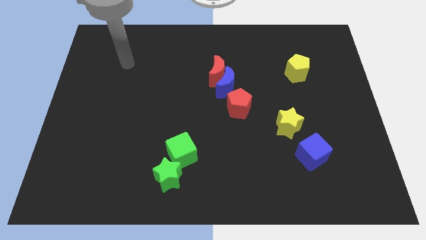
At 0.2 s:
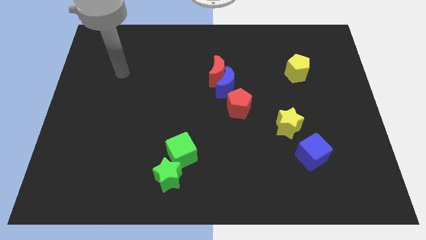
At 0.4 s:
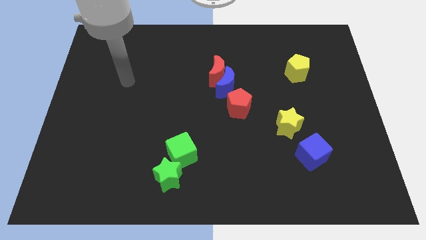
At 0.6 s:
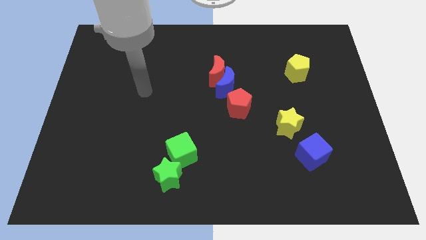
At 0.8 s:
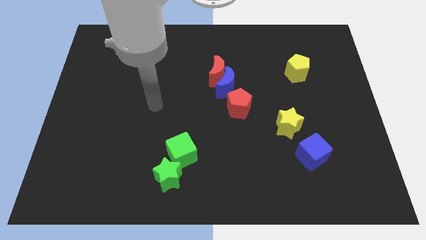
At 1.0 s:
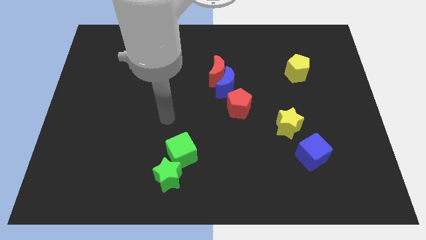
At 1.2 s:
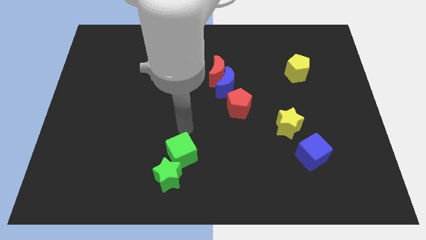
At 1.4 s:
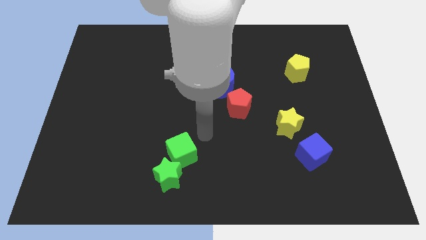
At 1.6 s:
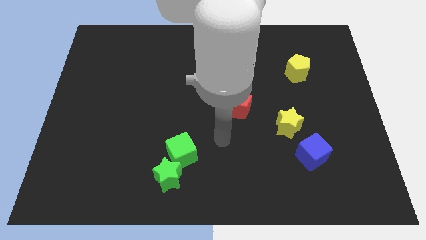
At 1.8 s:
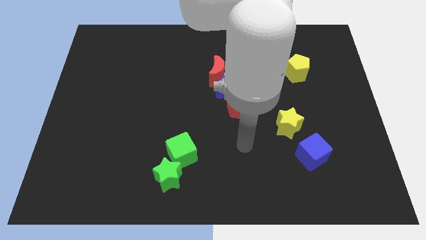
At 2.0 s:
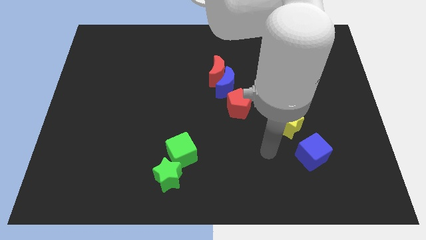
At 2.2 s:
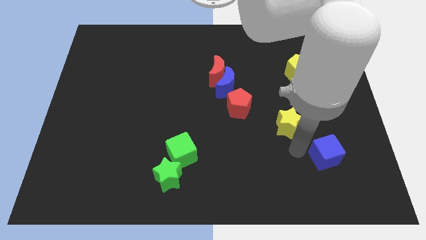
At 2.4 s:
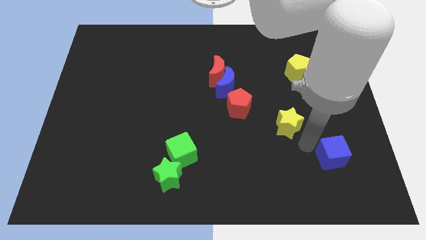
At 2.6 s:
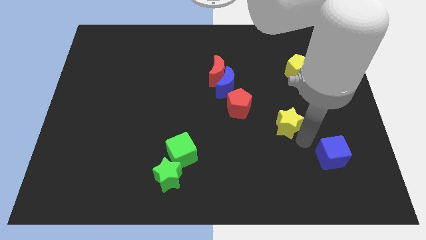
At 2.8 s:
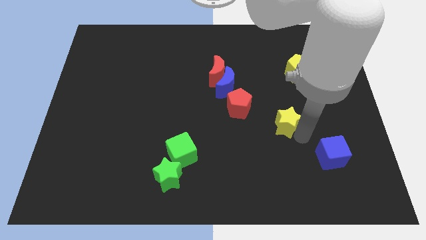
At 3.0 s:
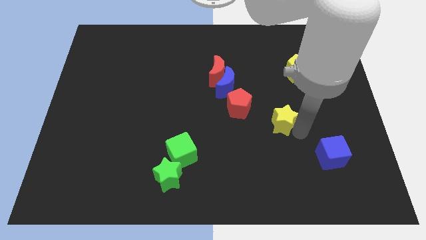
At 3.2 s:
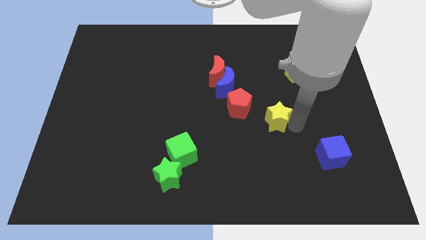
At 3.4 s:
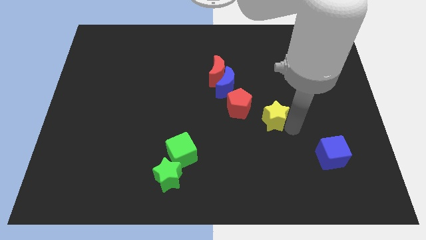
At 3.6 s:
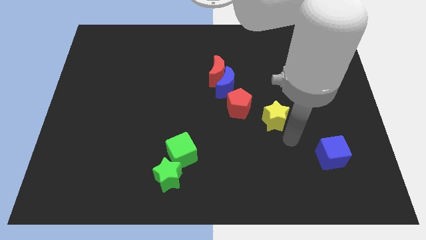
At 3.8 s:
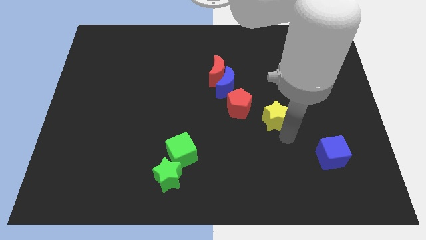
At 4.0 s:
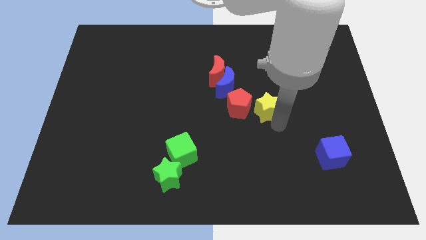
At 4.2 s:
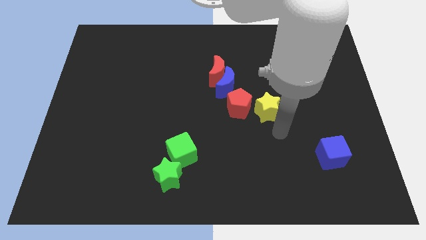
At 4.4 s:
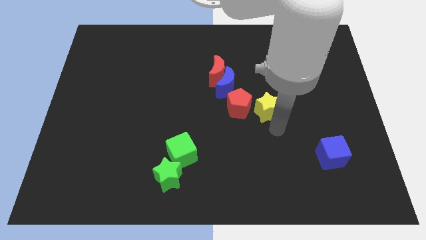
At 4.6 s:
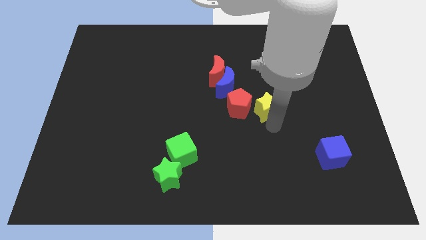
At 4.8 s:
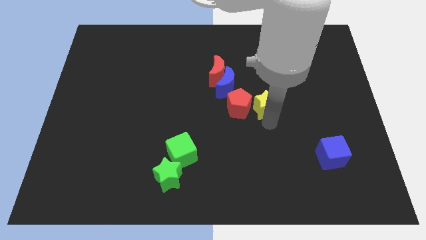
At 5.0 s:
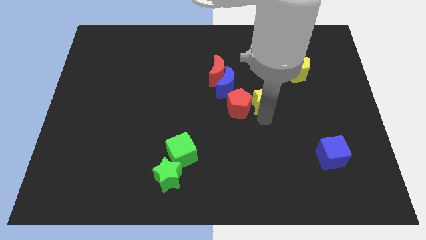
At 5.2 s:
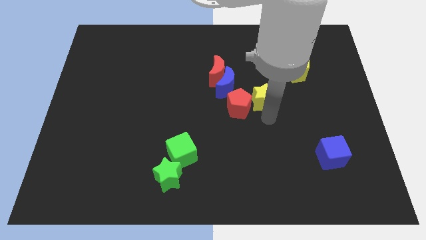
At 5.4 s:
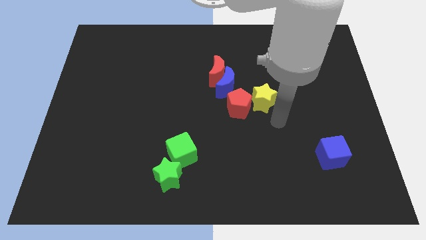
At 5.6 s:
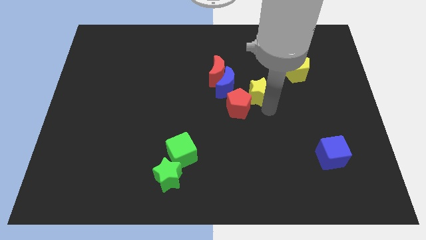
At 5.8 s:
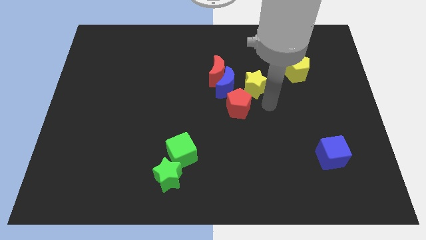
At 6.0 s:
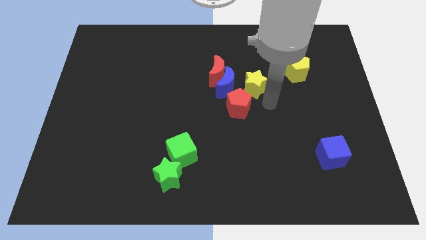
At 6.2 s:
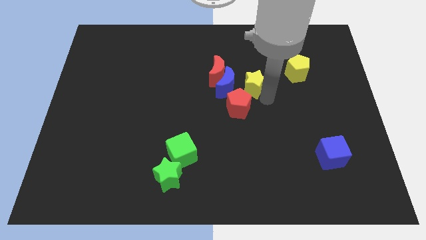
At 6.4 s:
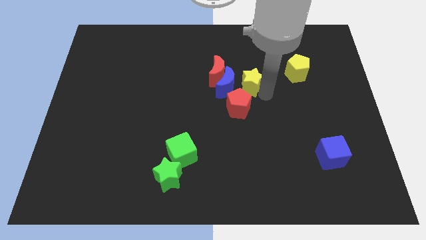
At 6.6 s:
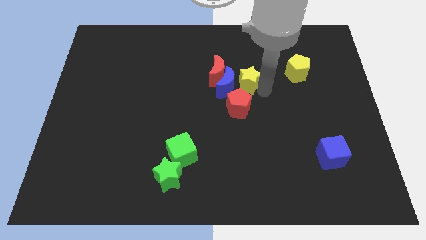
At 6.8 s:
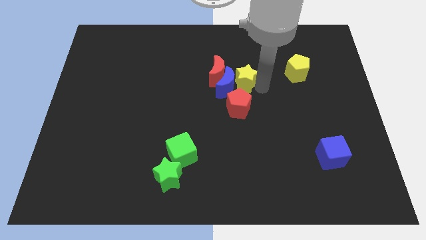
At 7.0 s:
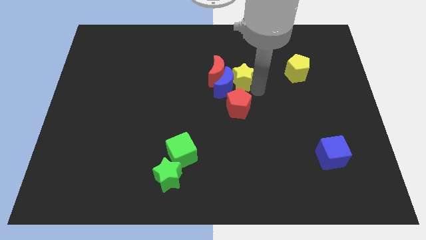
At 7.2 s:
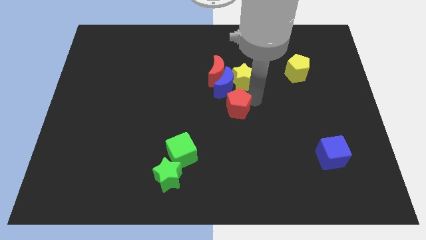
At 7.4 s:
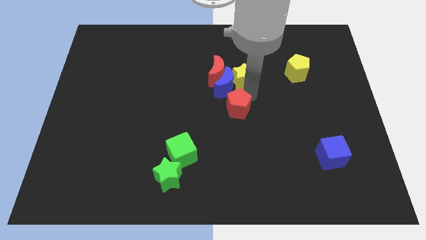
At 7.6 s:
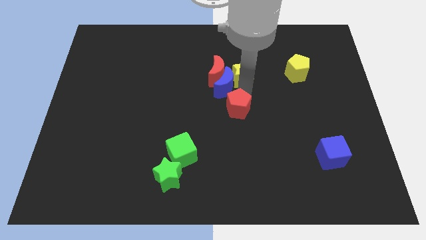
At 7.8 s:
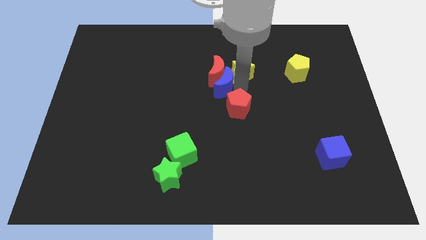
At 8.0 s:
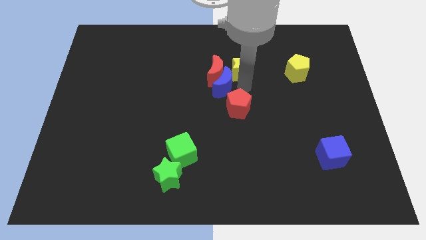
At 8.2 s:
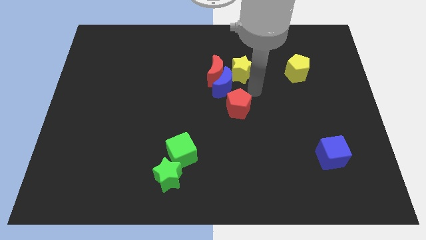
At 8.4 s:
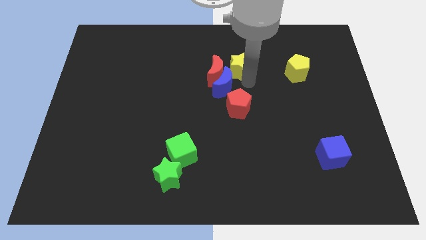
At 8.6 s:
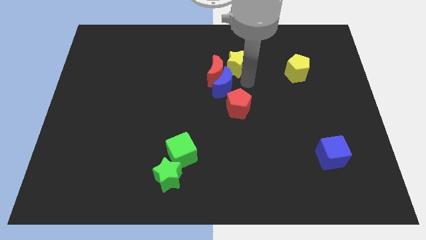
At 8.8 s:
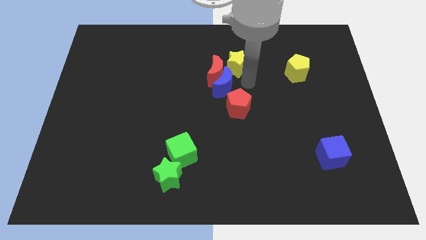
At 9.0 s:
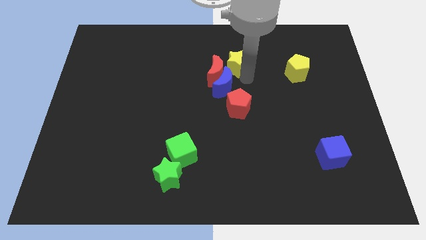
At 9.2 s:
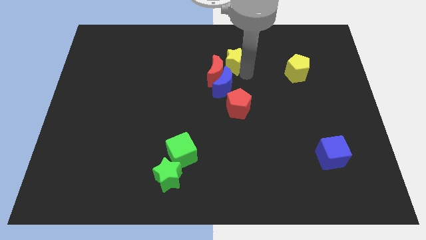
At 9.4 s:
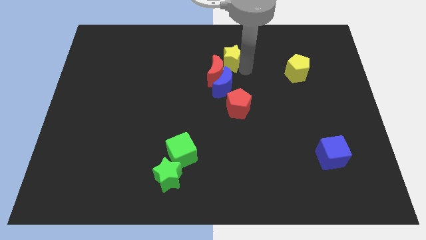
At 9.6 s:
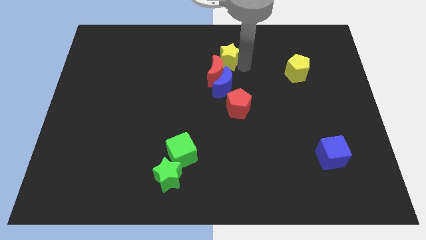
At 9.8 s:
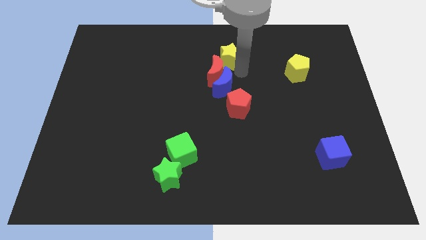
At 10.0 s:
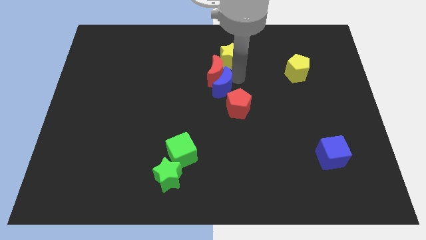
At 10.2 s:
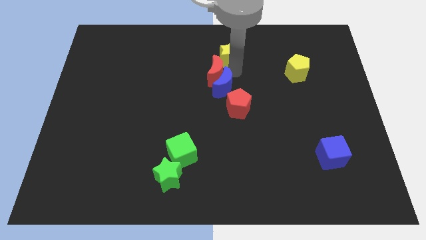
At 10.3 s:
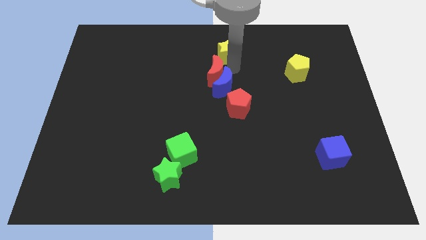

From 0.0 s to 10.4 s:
push the yellow star to the towards your base

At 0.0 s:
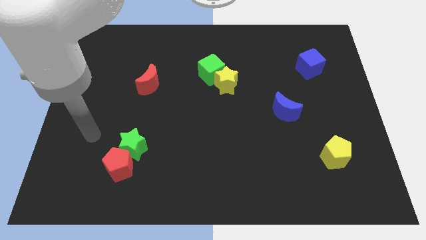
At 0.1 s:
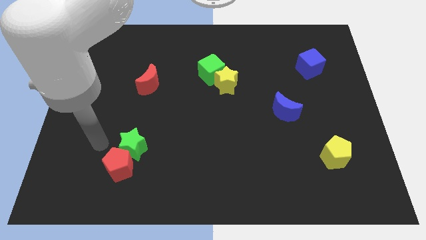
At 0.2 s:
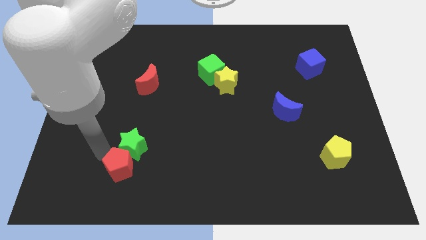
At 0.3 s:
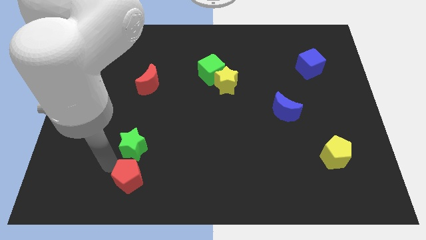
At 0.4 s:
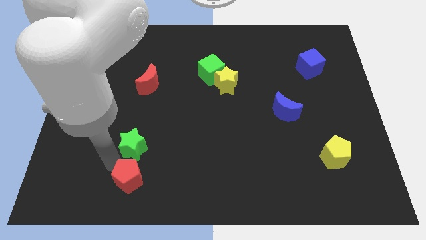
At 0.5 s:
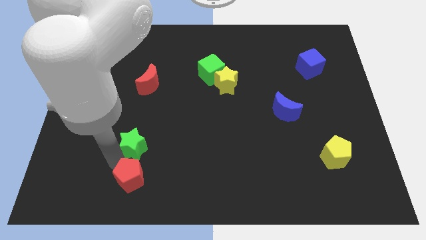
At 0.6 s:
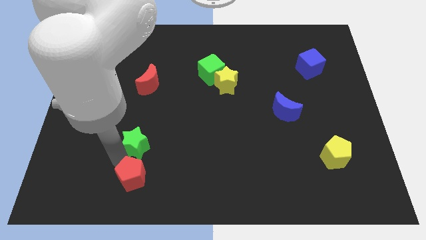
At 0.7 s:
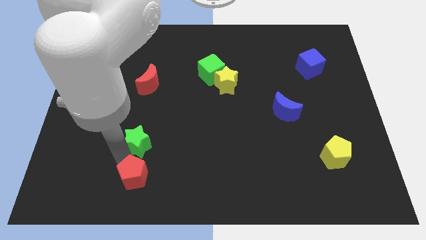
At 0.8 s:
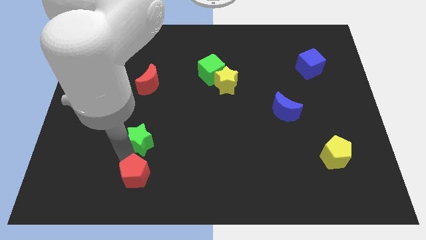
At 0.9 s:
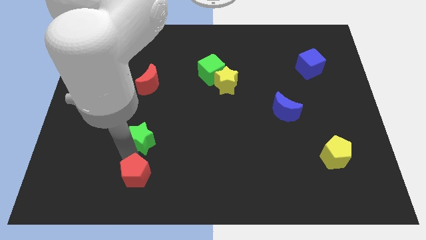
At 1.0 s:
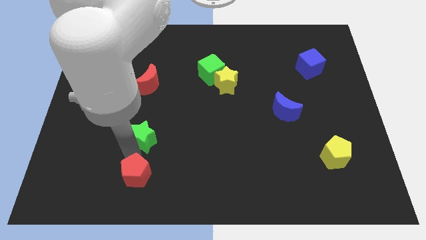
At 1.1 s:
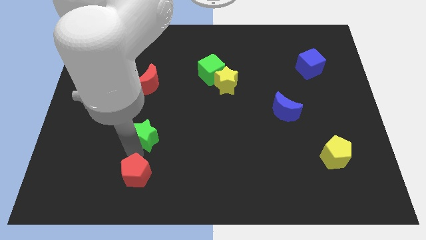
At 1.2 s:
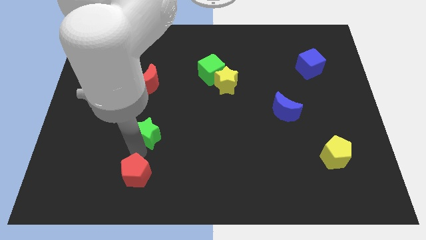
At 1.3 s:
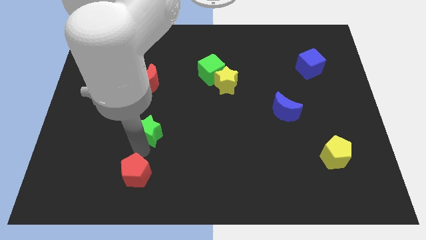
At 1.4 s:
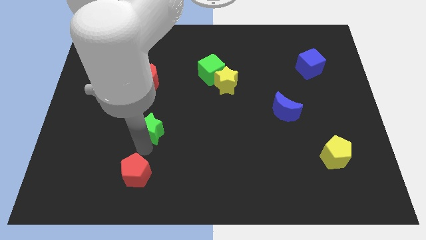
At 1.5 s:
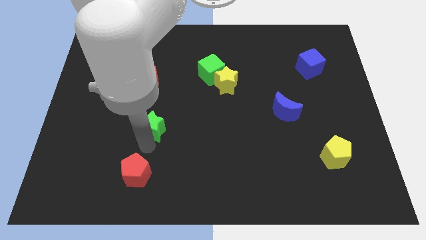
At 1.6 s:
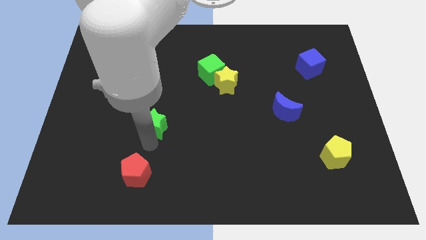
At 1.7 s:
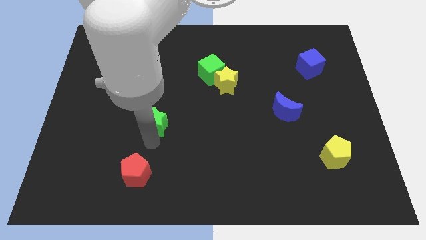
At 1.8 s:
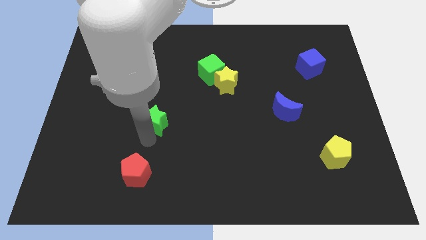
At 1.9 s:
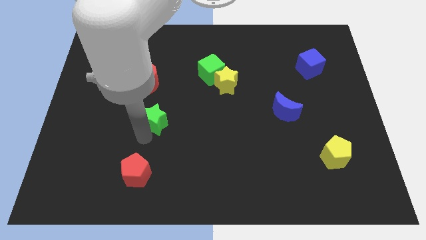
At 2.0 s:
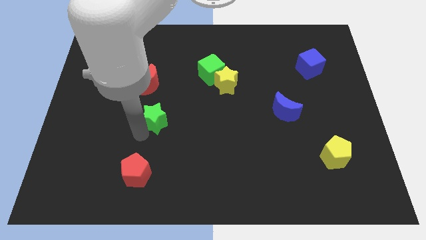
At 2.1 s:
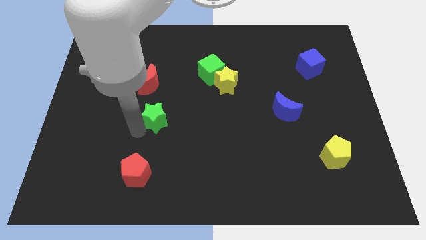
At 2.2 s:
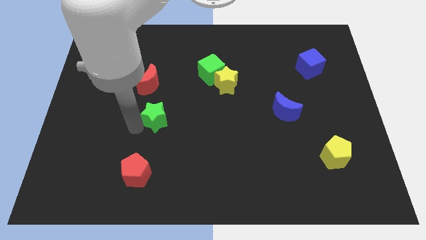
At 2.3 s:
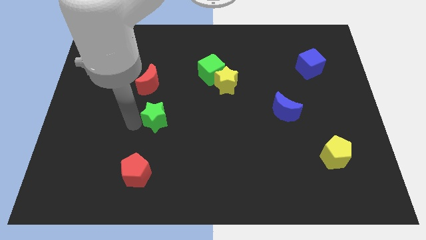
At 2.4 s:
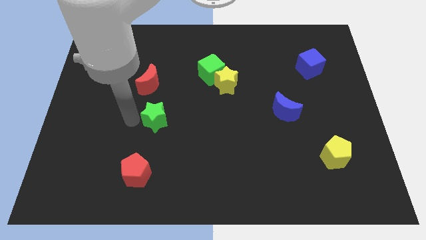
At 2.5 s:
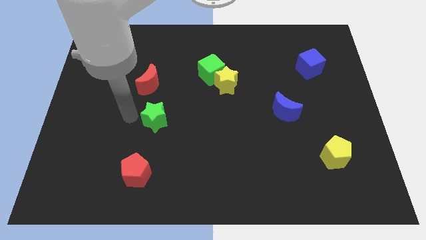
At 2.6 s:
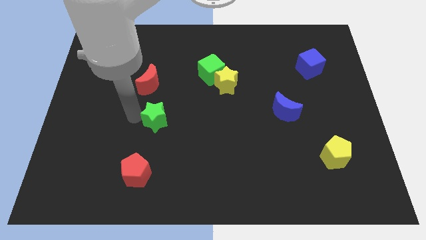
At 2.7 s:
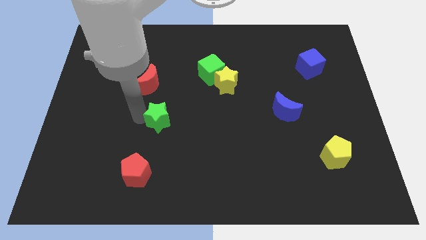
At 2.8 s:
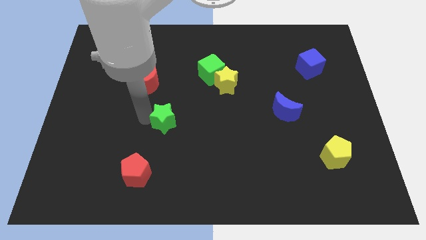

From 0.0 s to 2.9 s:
push the green star to the middle
